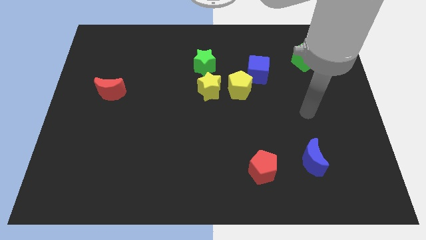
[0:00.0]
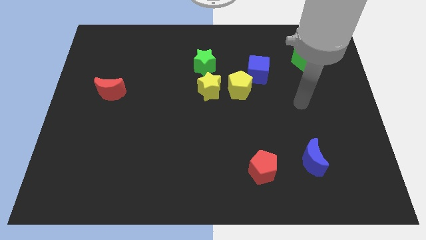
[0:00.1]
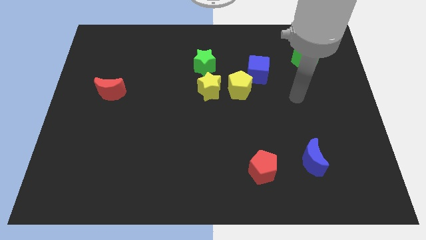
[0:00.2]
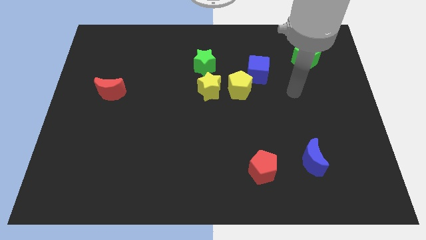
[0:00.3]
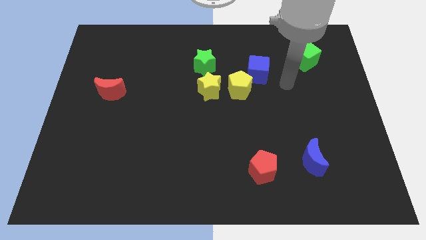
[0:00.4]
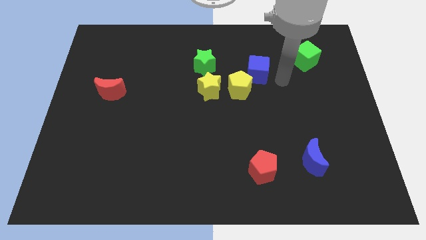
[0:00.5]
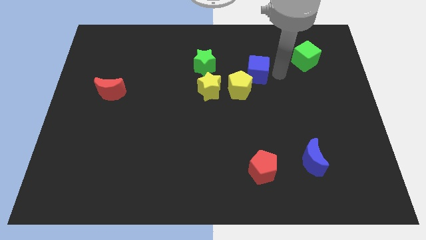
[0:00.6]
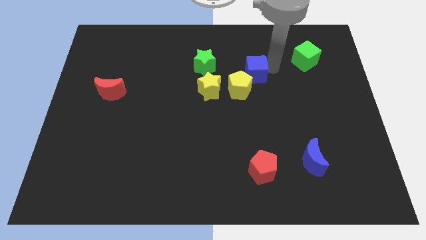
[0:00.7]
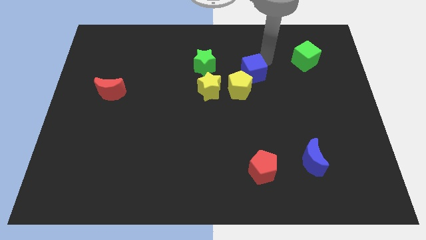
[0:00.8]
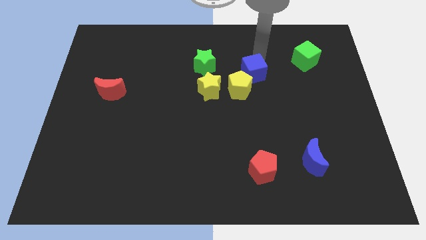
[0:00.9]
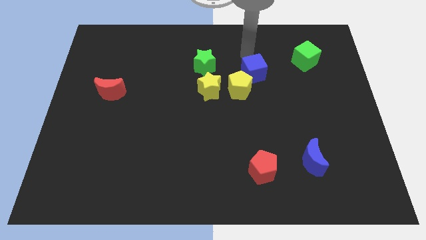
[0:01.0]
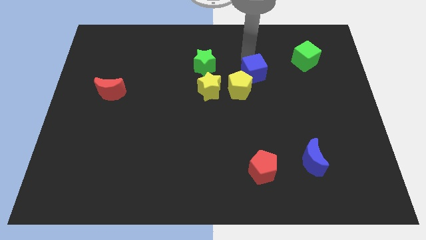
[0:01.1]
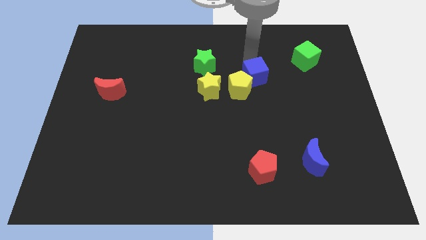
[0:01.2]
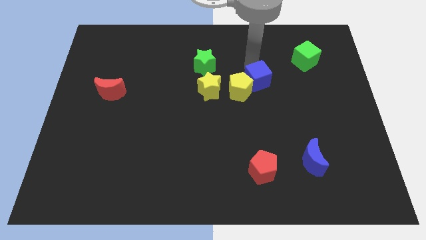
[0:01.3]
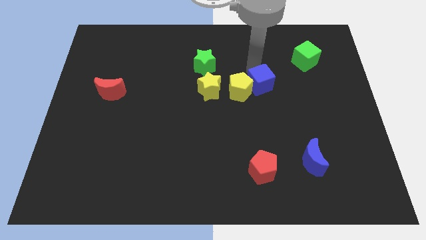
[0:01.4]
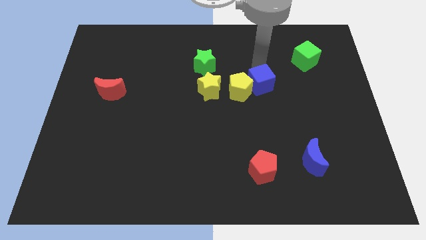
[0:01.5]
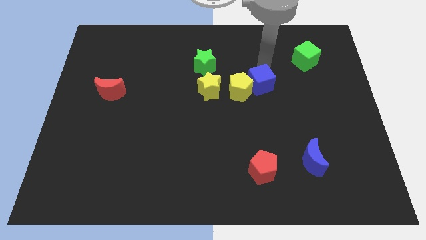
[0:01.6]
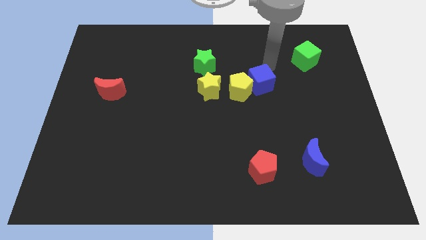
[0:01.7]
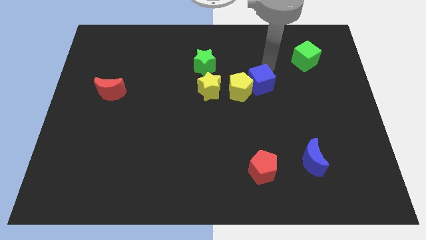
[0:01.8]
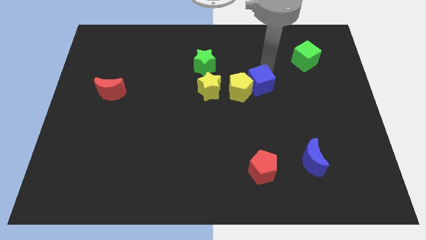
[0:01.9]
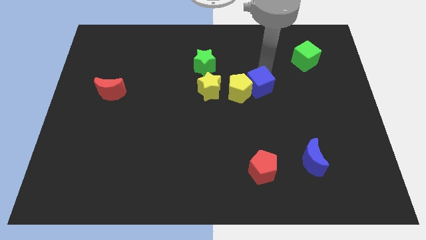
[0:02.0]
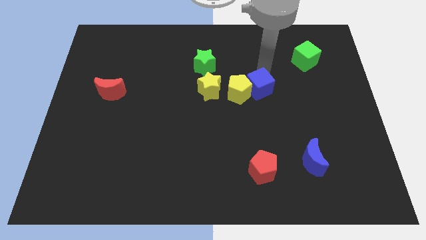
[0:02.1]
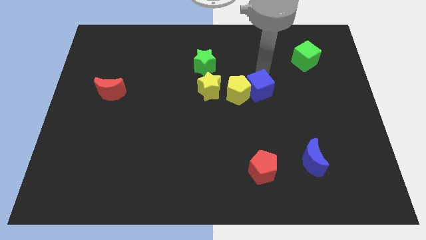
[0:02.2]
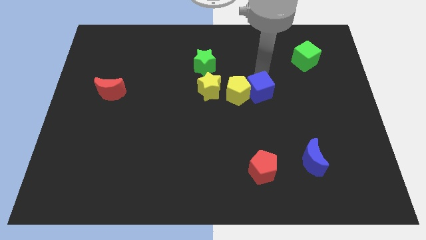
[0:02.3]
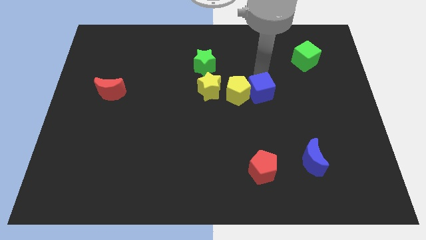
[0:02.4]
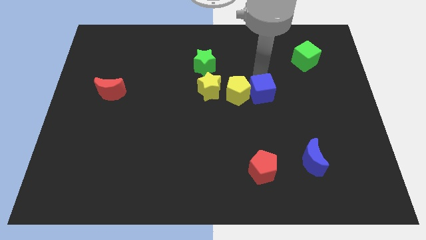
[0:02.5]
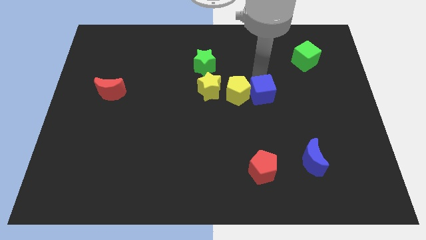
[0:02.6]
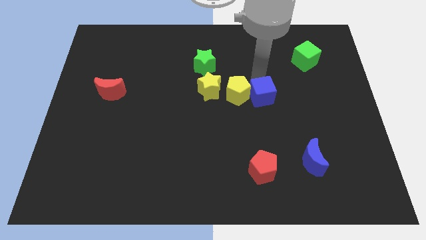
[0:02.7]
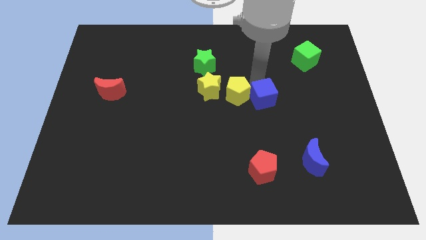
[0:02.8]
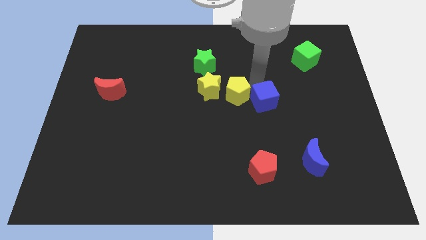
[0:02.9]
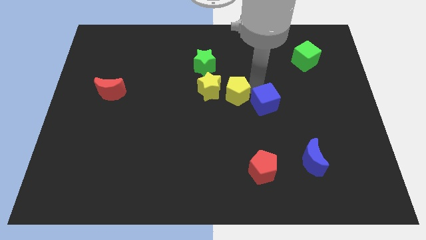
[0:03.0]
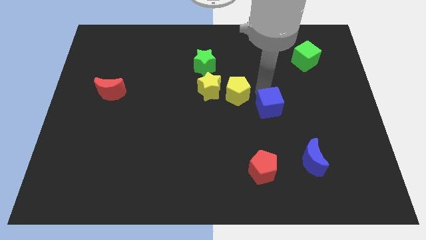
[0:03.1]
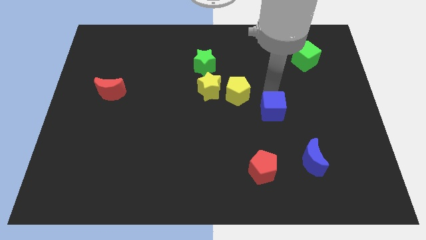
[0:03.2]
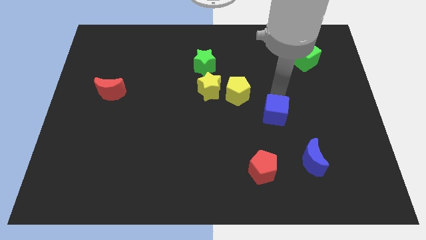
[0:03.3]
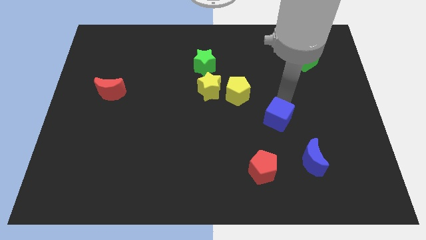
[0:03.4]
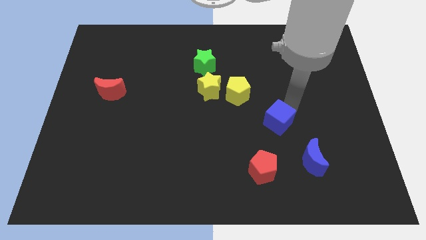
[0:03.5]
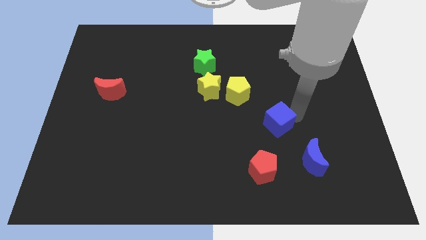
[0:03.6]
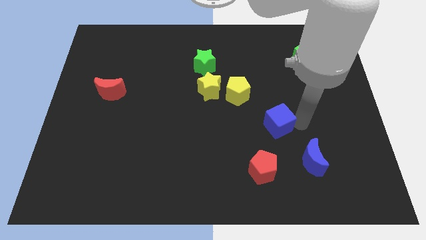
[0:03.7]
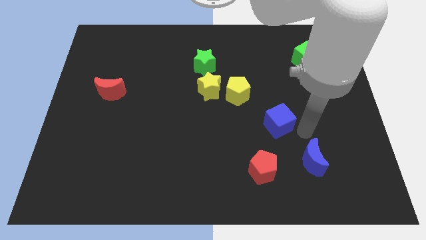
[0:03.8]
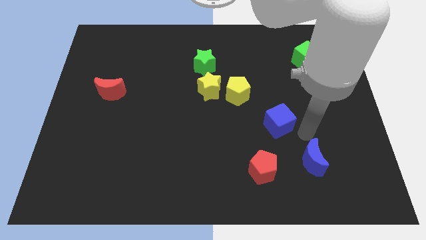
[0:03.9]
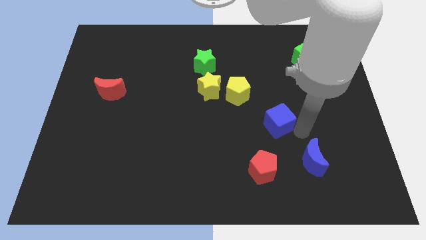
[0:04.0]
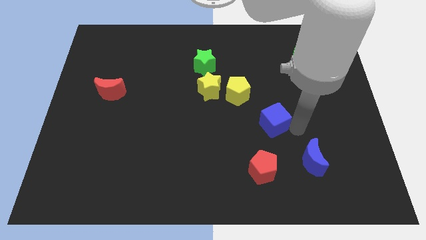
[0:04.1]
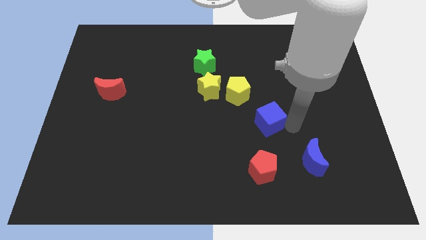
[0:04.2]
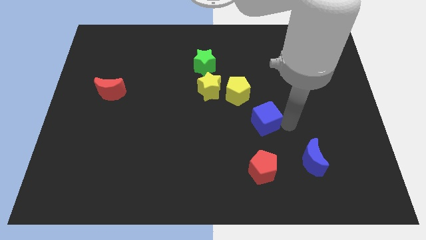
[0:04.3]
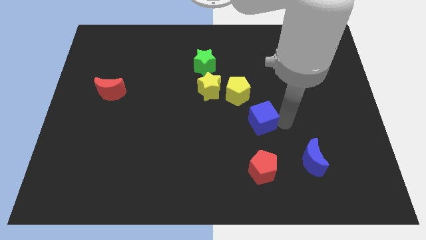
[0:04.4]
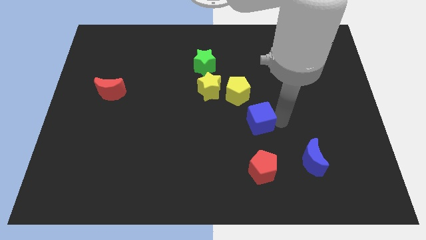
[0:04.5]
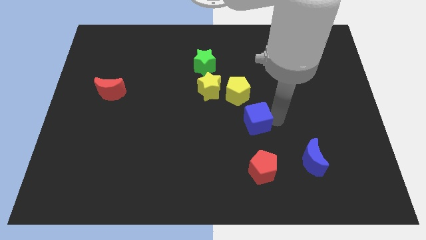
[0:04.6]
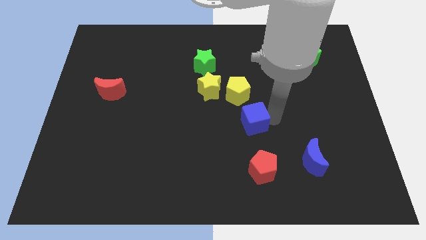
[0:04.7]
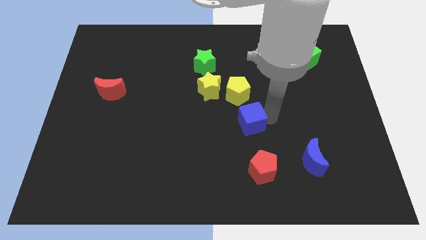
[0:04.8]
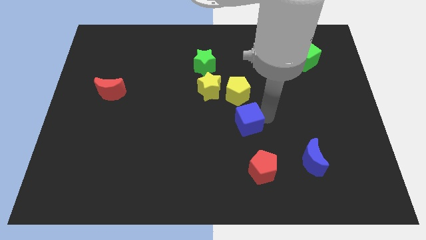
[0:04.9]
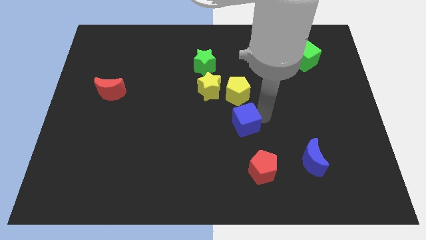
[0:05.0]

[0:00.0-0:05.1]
push the blue cube diagonally down and to the right of the yellow star

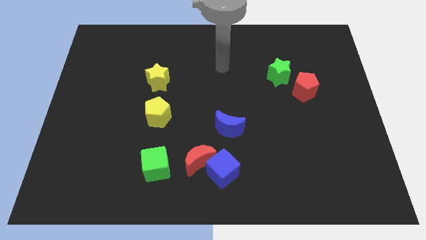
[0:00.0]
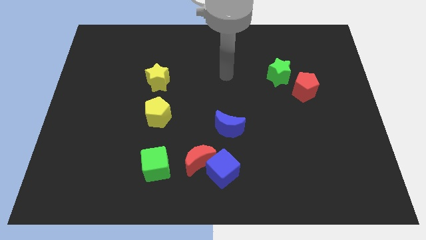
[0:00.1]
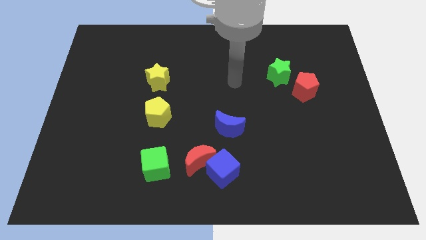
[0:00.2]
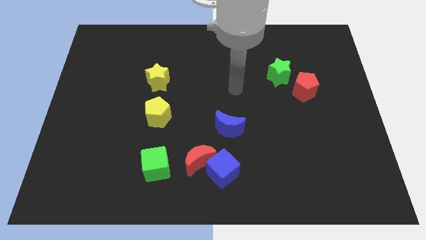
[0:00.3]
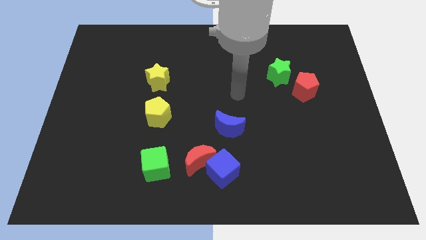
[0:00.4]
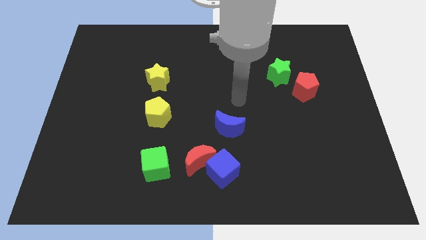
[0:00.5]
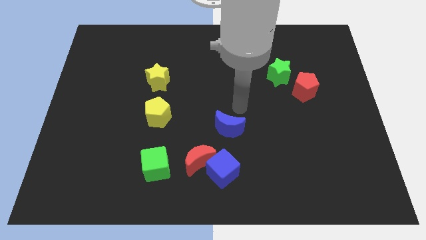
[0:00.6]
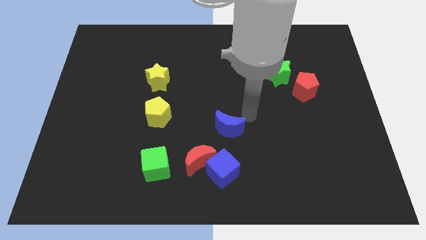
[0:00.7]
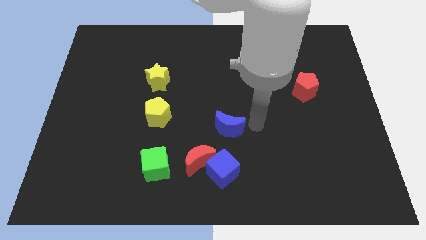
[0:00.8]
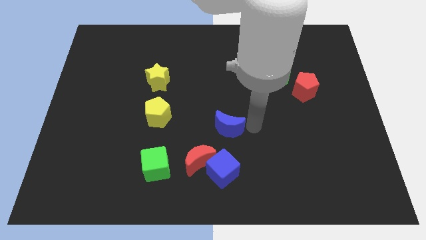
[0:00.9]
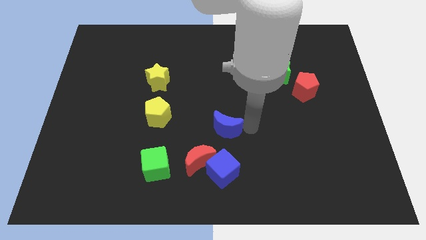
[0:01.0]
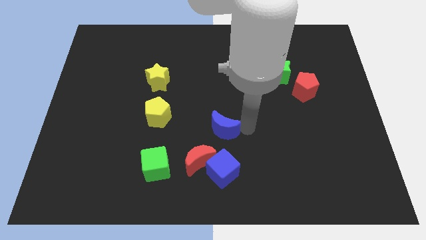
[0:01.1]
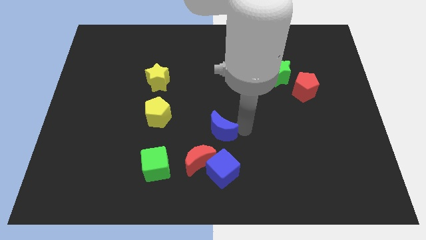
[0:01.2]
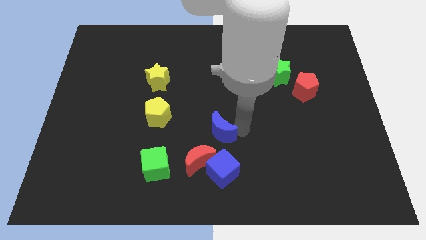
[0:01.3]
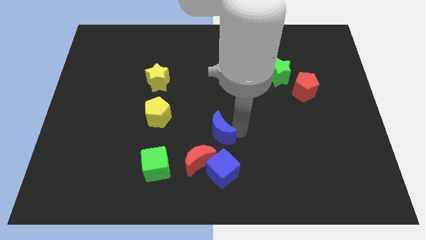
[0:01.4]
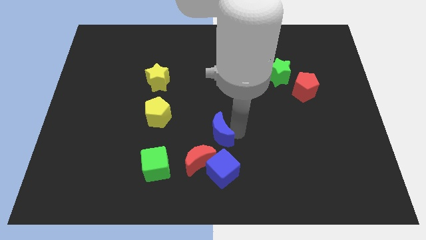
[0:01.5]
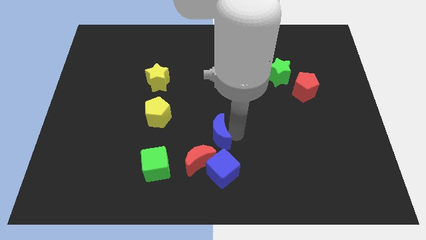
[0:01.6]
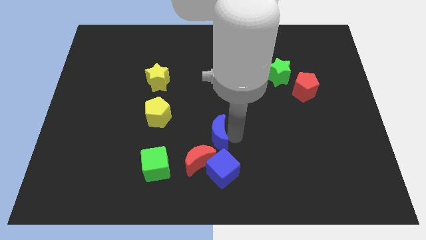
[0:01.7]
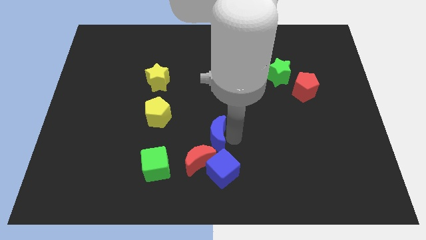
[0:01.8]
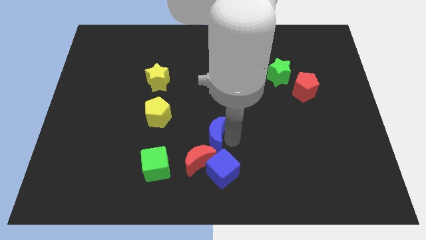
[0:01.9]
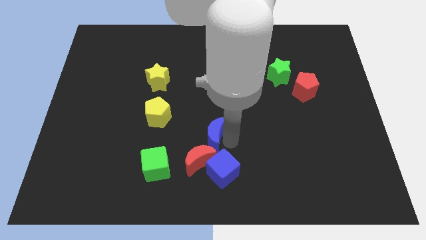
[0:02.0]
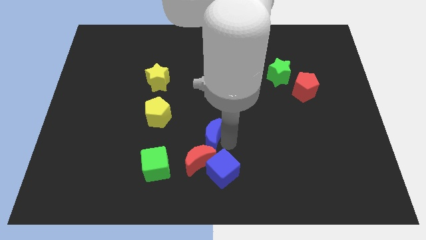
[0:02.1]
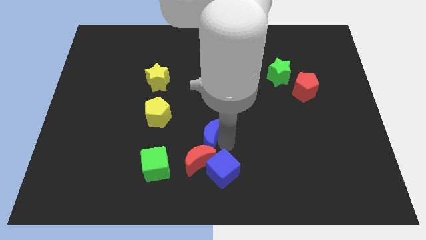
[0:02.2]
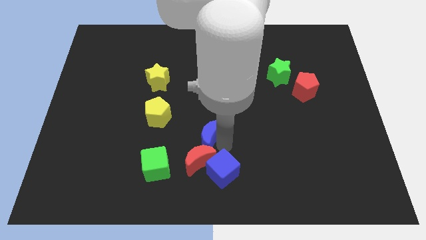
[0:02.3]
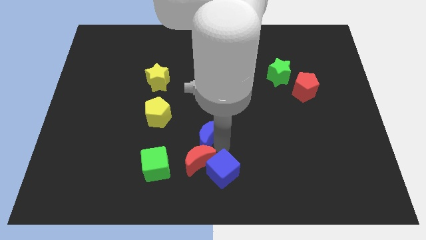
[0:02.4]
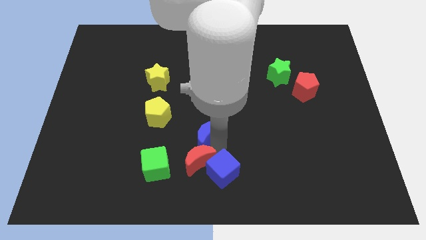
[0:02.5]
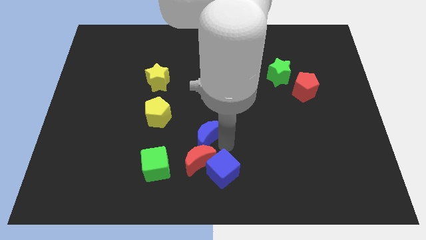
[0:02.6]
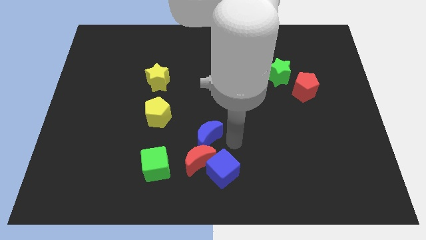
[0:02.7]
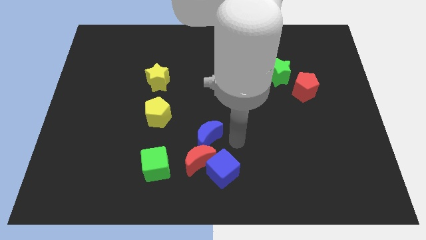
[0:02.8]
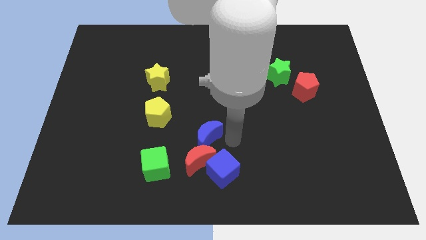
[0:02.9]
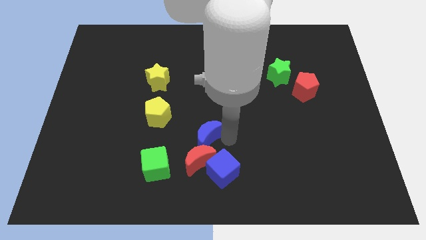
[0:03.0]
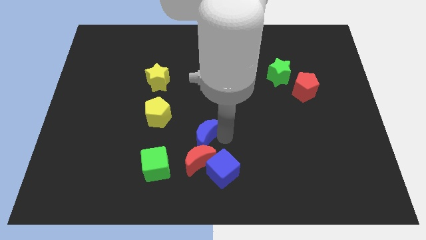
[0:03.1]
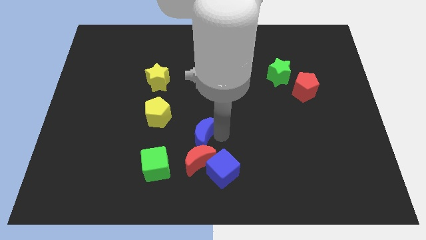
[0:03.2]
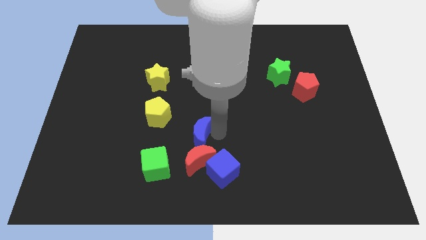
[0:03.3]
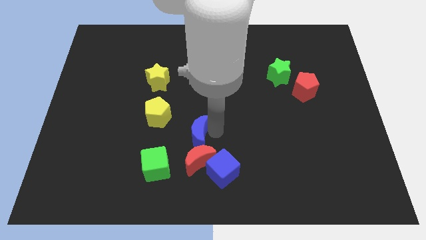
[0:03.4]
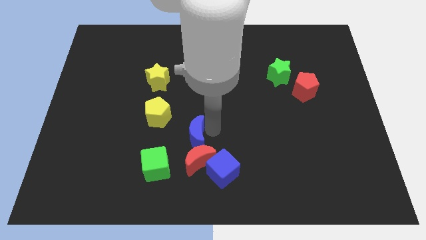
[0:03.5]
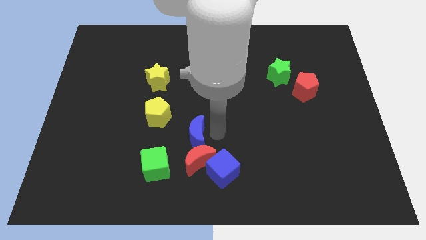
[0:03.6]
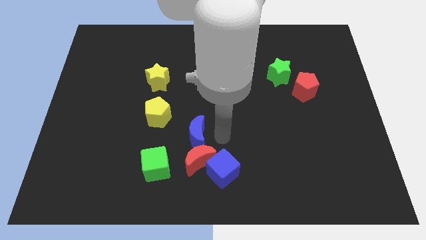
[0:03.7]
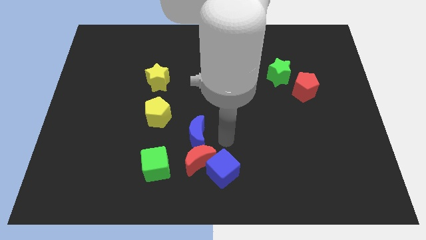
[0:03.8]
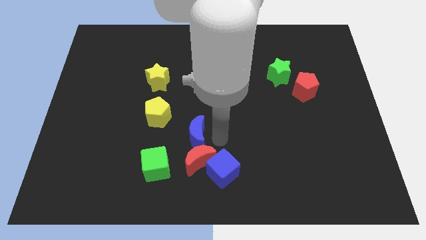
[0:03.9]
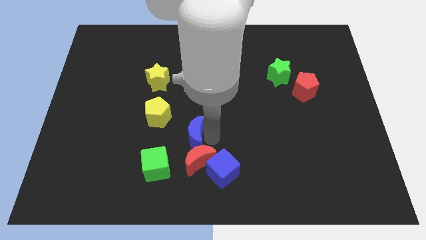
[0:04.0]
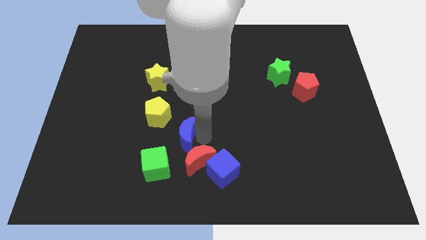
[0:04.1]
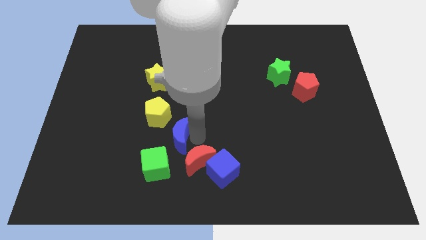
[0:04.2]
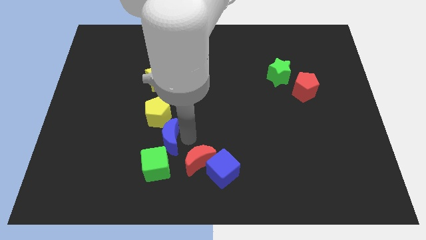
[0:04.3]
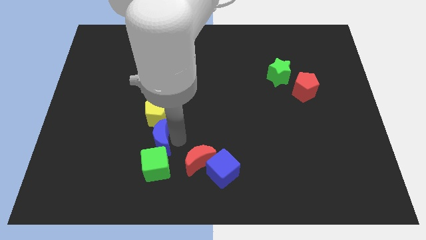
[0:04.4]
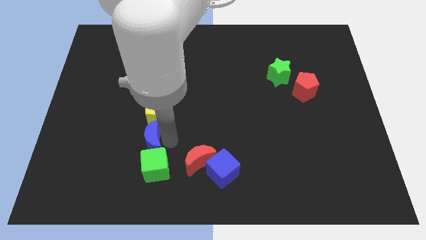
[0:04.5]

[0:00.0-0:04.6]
put the blue moon to the bottom left side of the yellow pentagon
